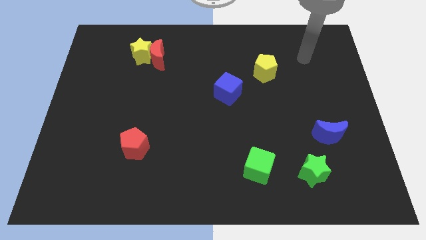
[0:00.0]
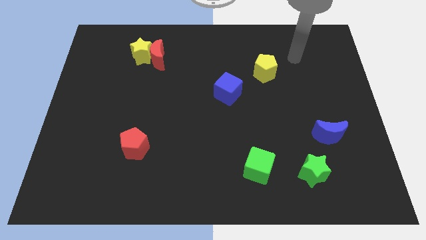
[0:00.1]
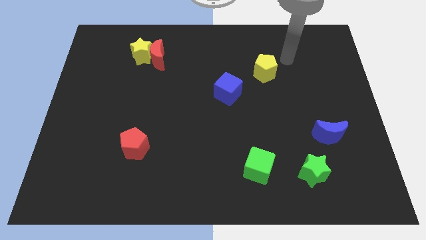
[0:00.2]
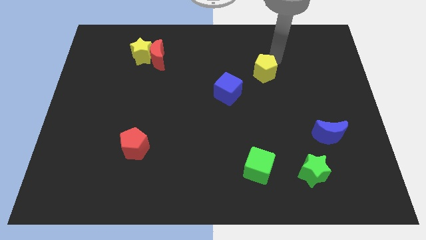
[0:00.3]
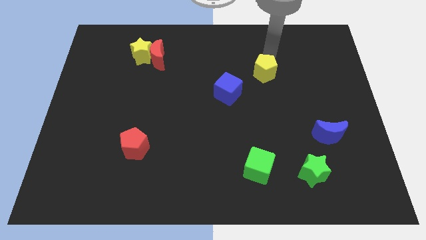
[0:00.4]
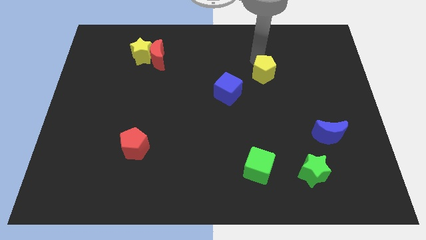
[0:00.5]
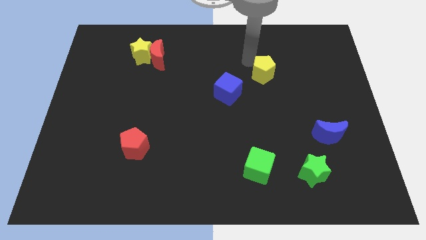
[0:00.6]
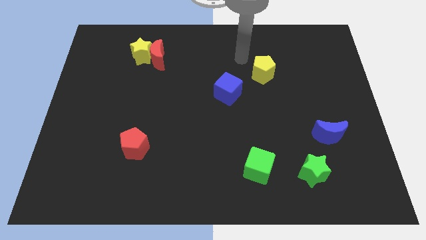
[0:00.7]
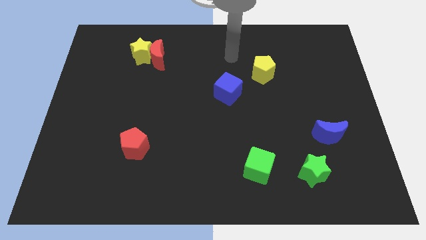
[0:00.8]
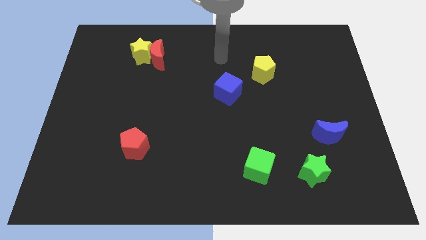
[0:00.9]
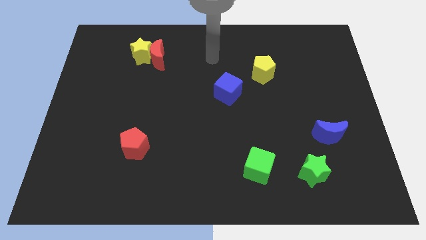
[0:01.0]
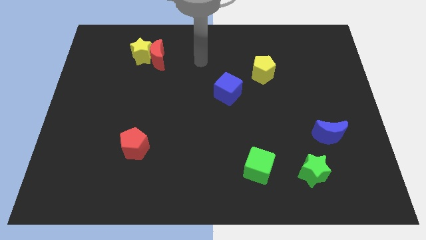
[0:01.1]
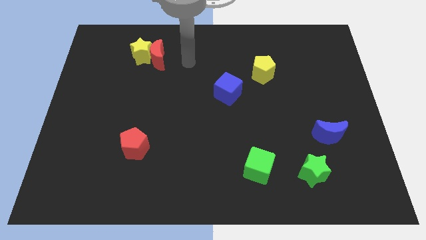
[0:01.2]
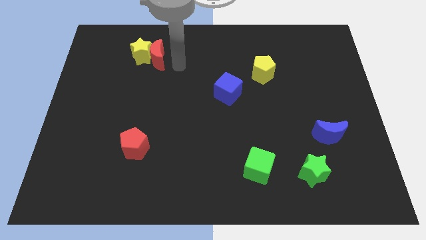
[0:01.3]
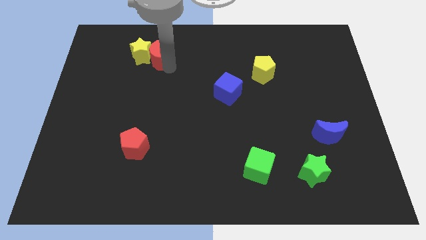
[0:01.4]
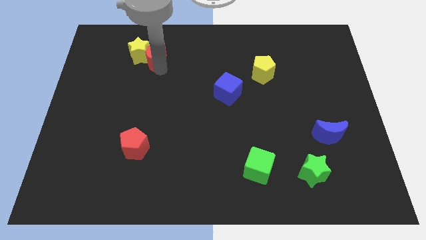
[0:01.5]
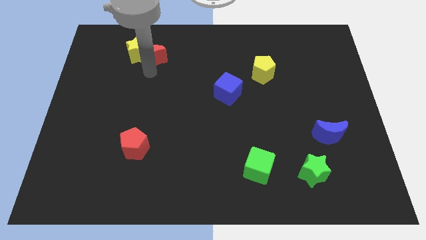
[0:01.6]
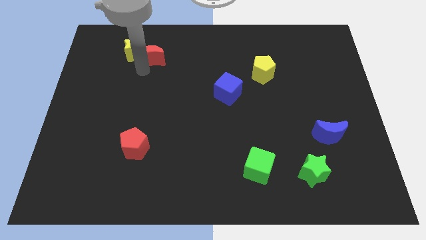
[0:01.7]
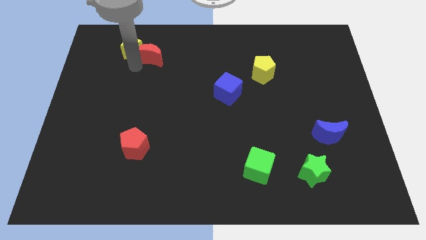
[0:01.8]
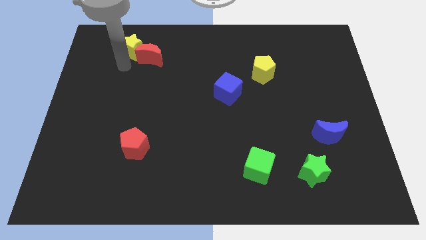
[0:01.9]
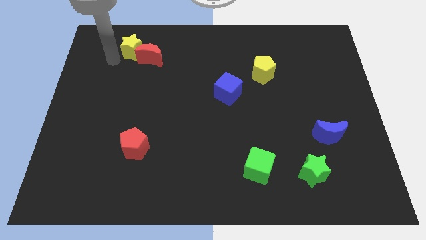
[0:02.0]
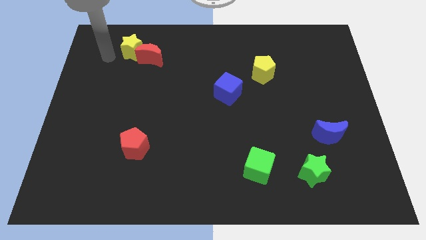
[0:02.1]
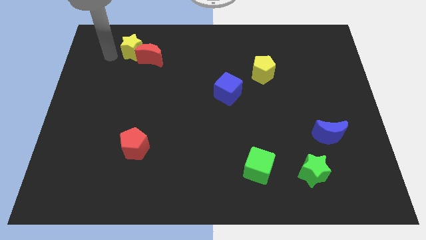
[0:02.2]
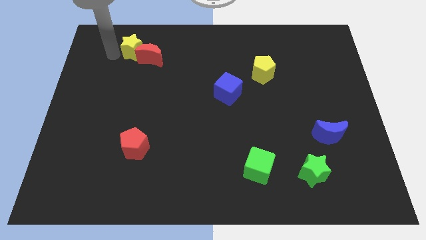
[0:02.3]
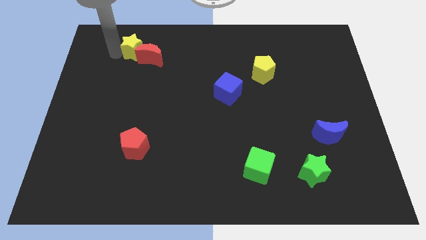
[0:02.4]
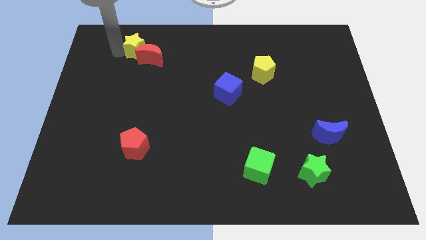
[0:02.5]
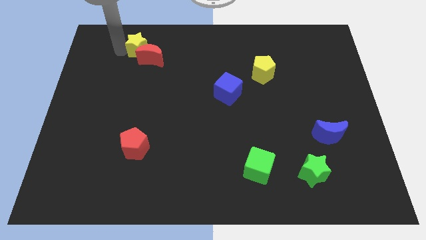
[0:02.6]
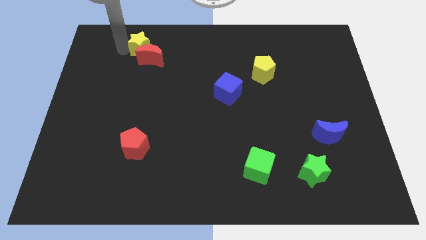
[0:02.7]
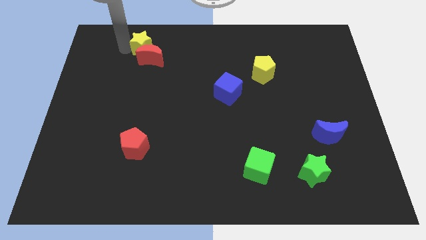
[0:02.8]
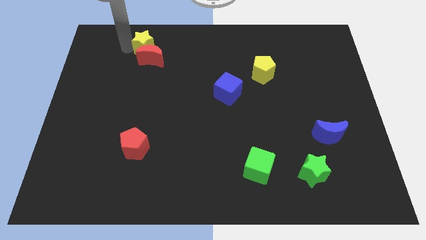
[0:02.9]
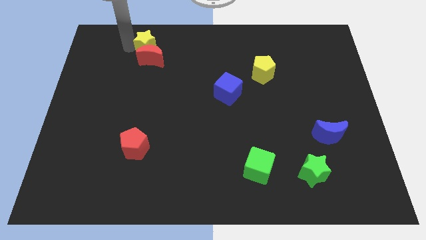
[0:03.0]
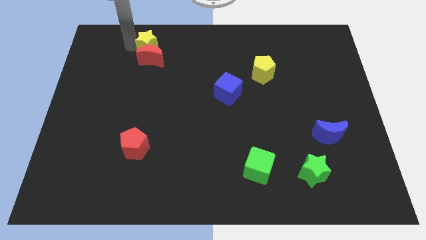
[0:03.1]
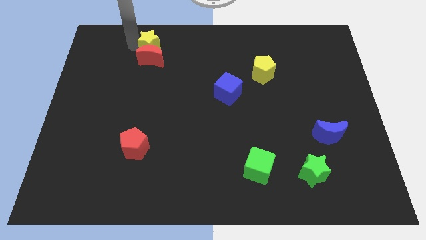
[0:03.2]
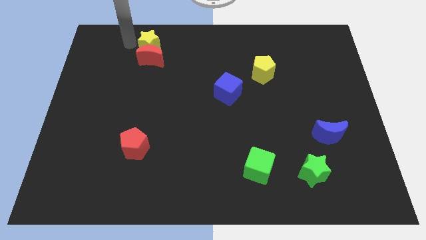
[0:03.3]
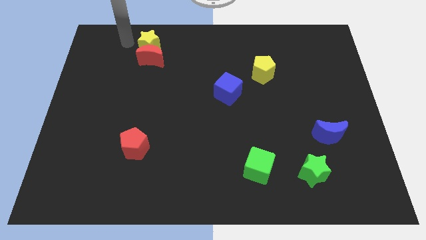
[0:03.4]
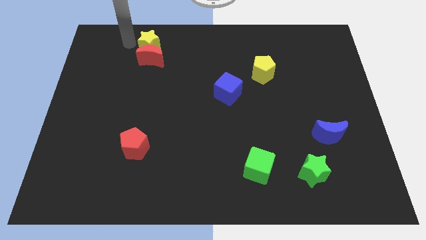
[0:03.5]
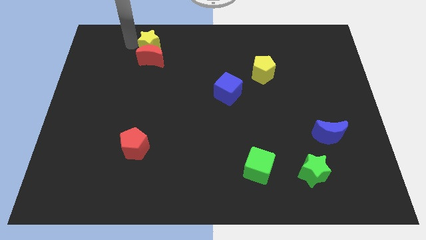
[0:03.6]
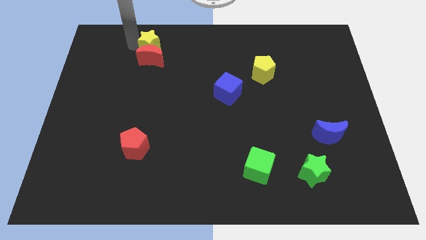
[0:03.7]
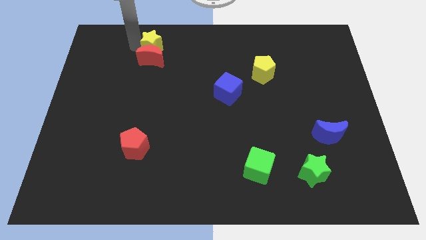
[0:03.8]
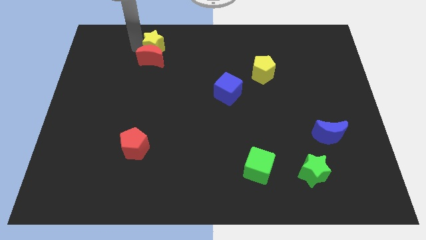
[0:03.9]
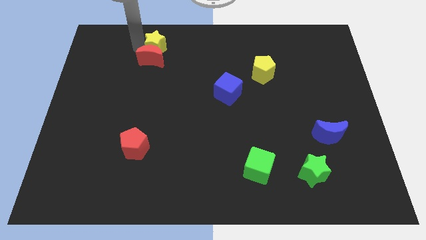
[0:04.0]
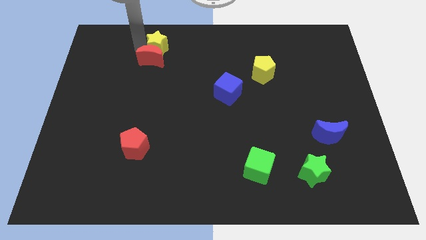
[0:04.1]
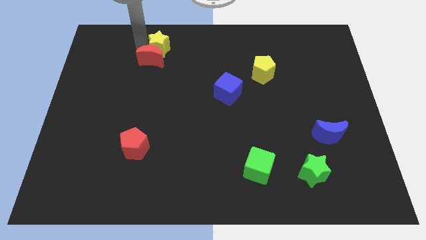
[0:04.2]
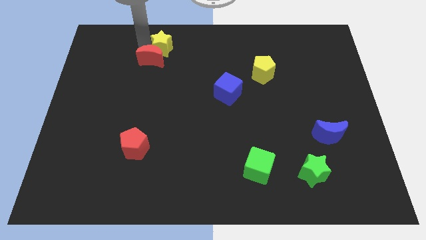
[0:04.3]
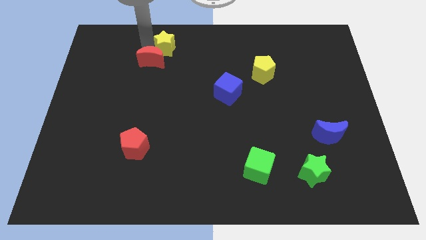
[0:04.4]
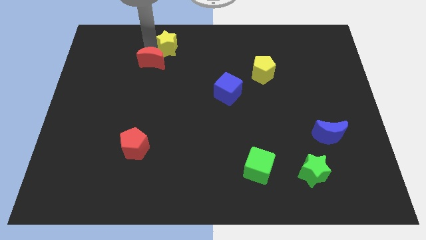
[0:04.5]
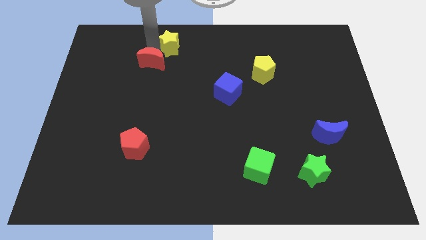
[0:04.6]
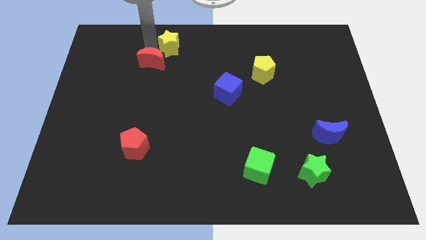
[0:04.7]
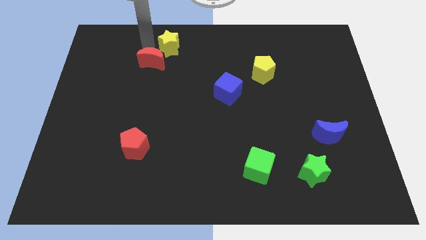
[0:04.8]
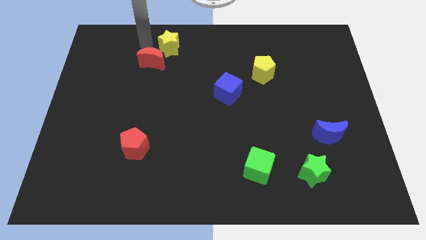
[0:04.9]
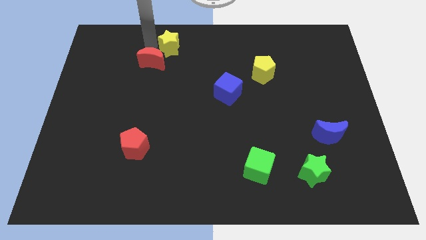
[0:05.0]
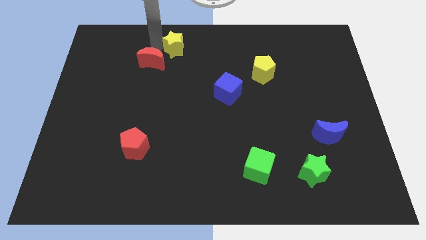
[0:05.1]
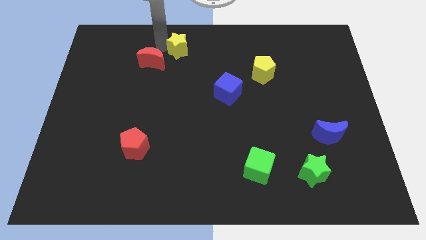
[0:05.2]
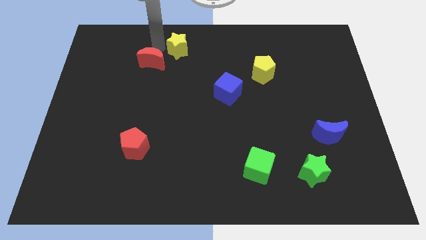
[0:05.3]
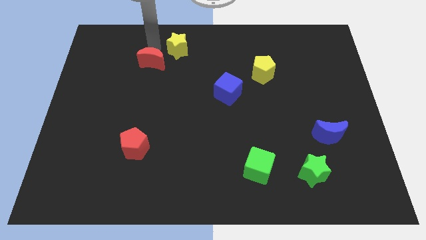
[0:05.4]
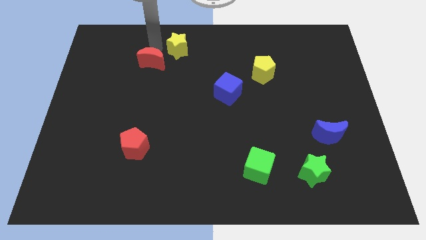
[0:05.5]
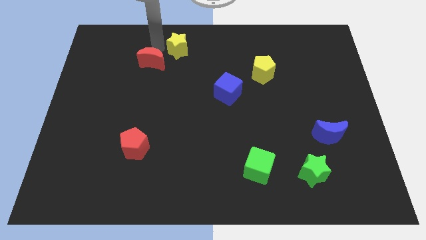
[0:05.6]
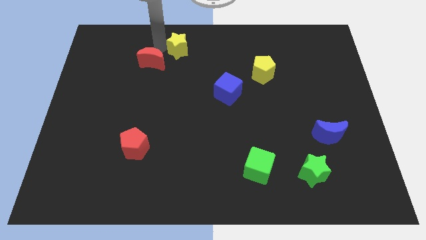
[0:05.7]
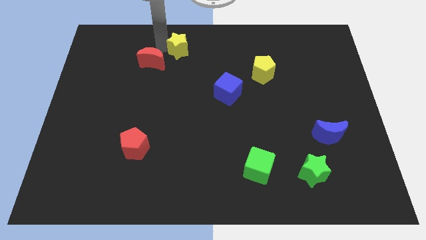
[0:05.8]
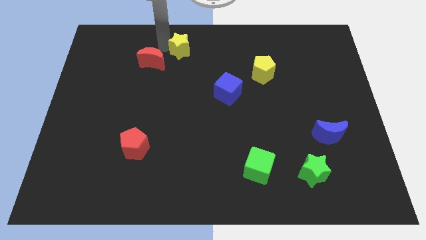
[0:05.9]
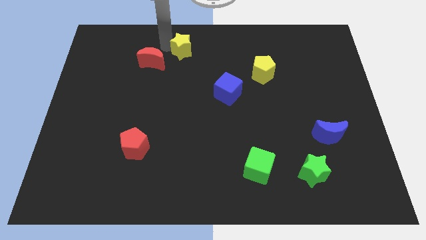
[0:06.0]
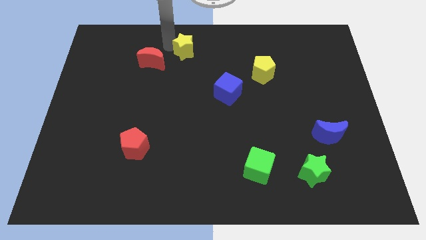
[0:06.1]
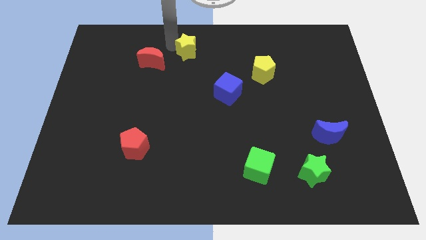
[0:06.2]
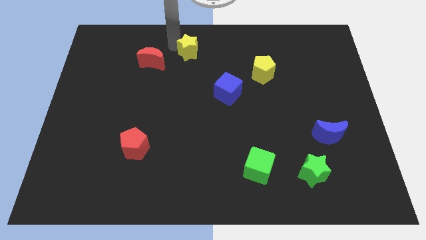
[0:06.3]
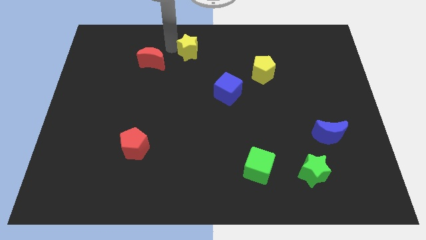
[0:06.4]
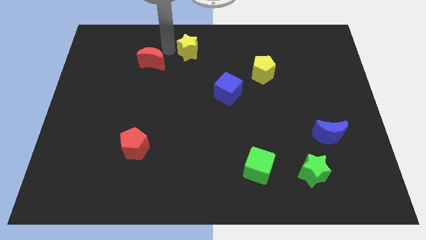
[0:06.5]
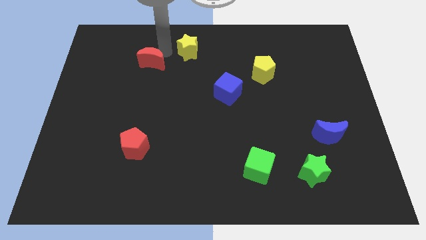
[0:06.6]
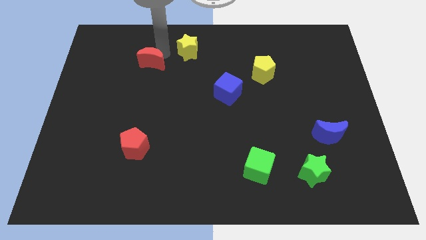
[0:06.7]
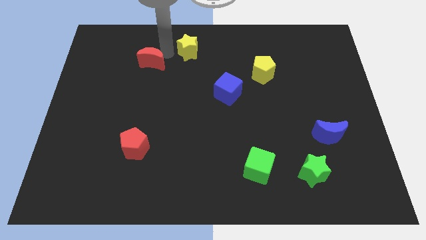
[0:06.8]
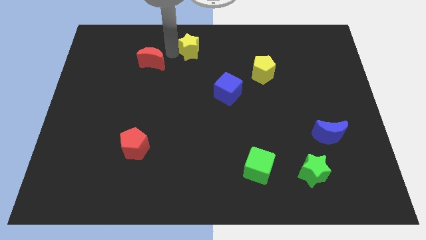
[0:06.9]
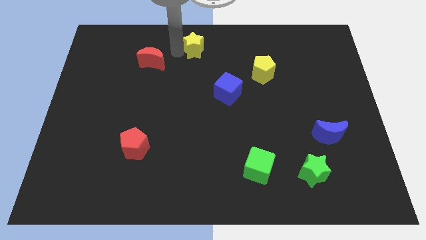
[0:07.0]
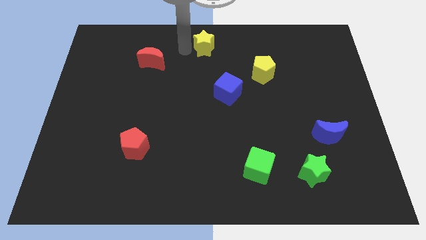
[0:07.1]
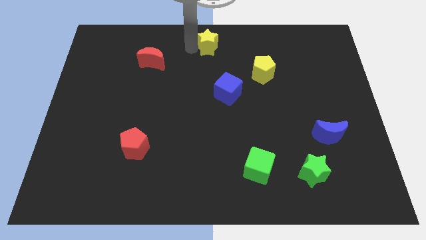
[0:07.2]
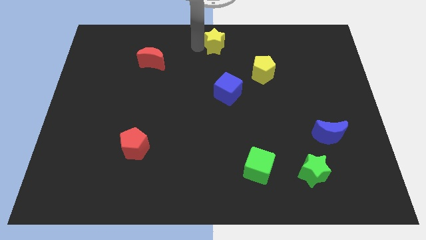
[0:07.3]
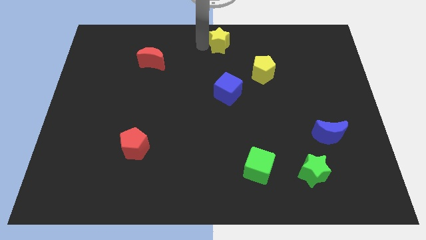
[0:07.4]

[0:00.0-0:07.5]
move the yellow star right

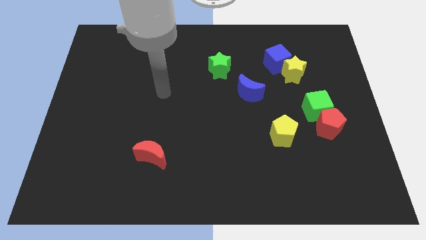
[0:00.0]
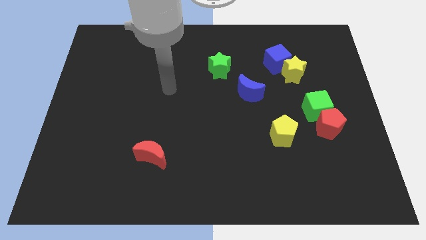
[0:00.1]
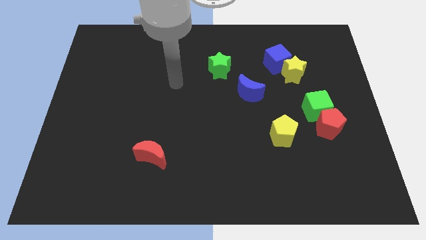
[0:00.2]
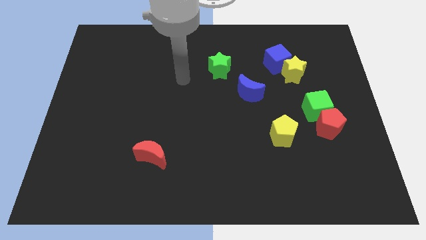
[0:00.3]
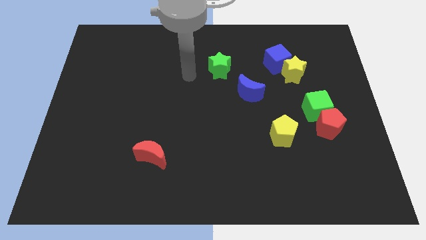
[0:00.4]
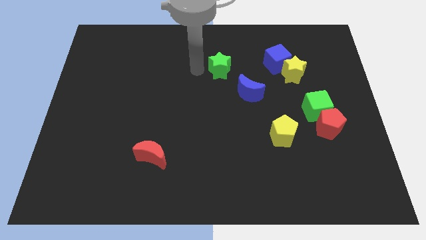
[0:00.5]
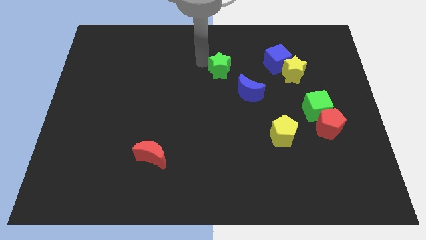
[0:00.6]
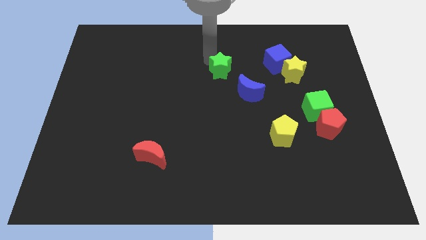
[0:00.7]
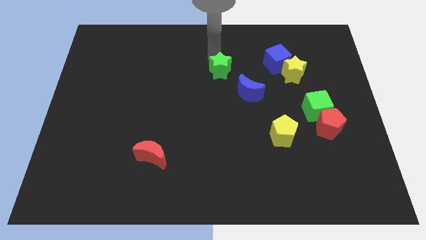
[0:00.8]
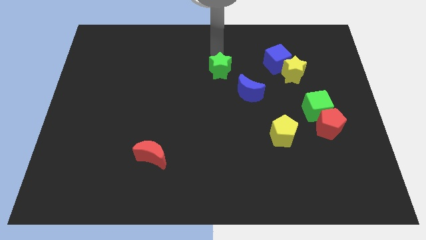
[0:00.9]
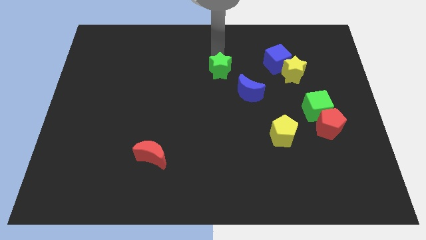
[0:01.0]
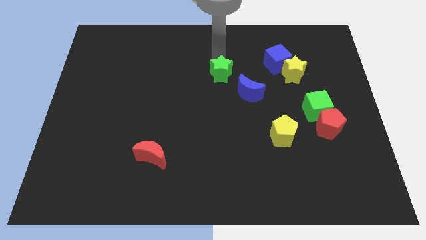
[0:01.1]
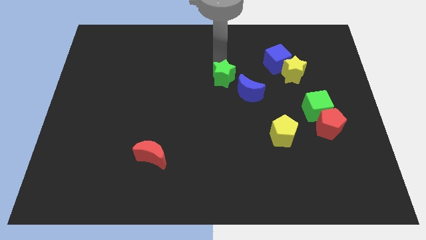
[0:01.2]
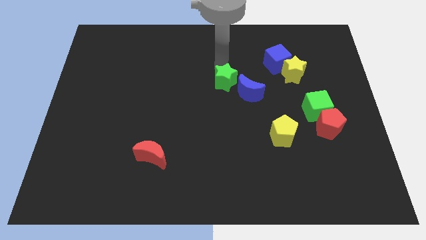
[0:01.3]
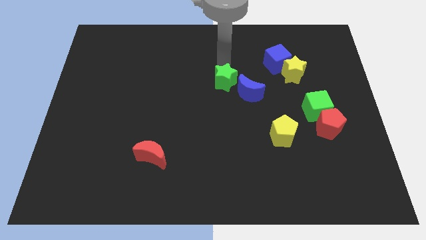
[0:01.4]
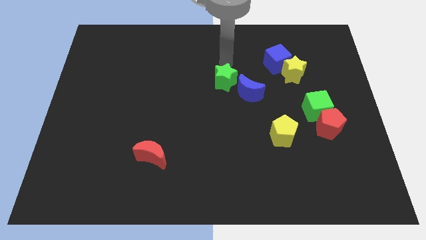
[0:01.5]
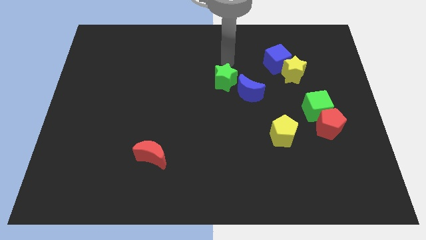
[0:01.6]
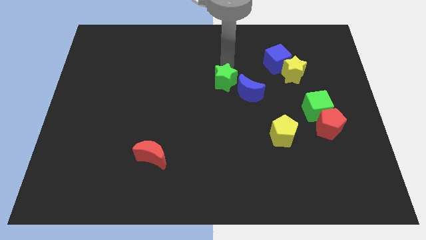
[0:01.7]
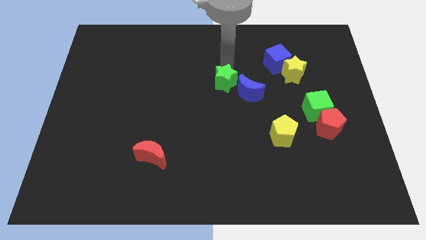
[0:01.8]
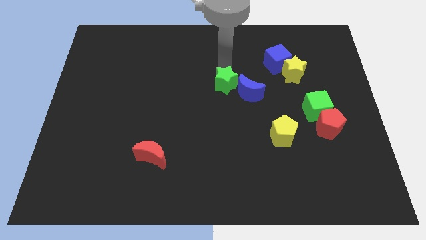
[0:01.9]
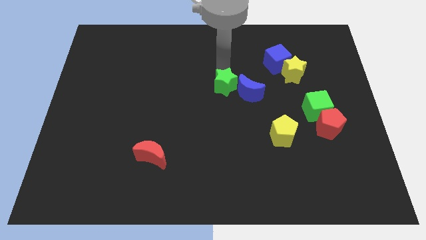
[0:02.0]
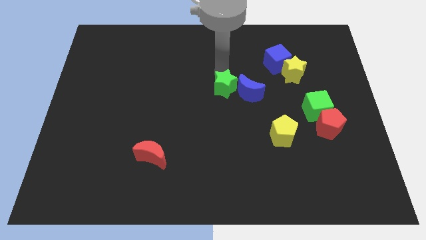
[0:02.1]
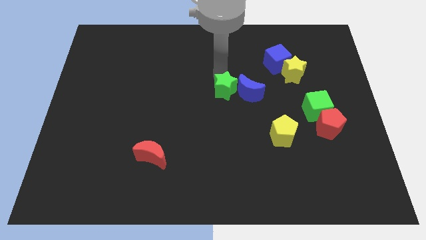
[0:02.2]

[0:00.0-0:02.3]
slide the green star a little bit down
